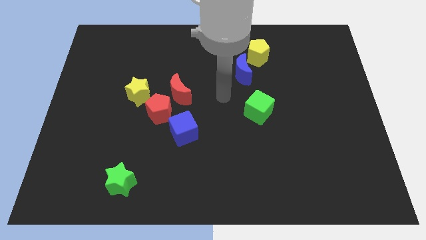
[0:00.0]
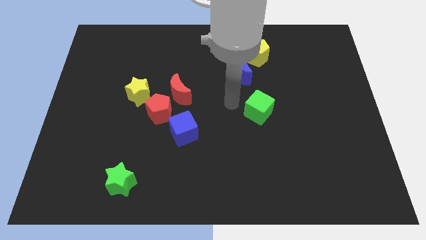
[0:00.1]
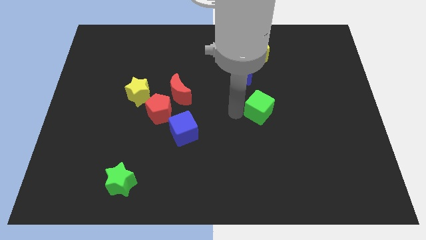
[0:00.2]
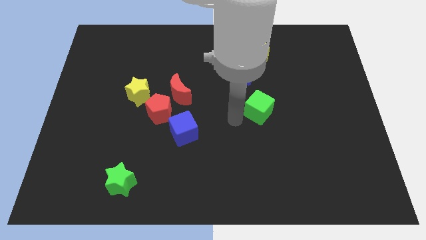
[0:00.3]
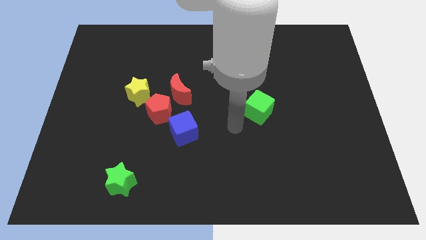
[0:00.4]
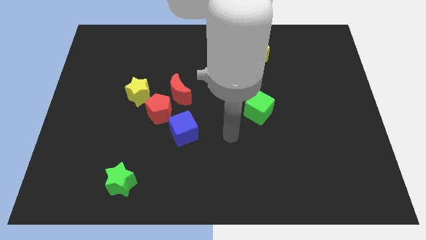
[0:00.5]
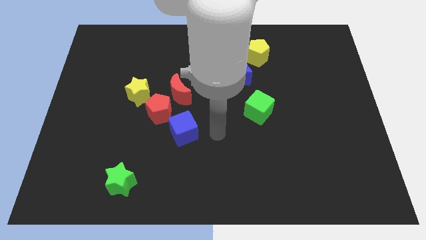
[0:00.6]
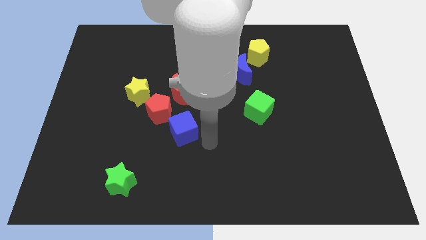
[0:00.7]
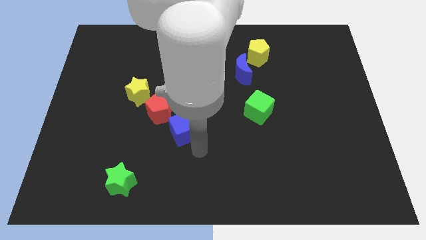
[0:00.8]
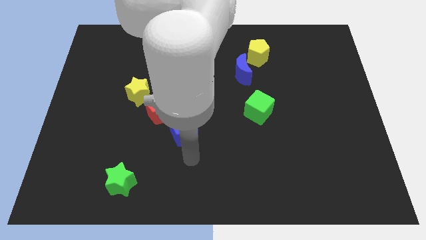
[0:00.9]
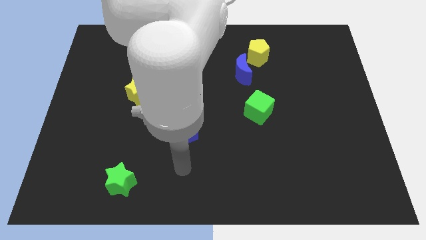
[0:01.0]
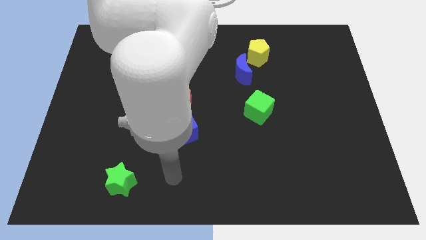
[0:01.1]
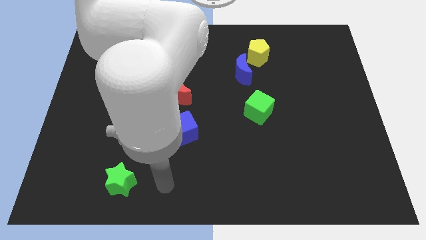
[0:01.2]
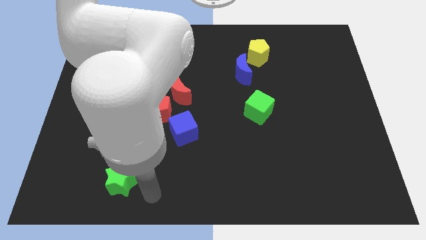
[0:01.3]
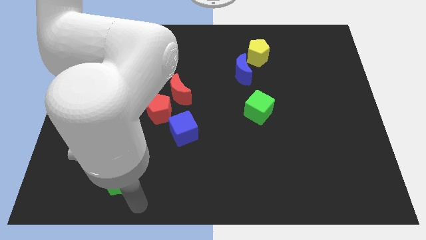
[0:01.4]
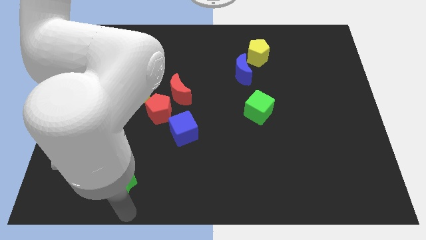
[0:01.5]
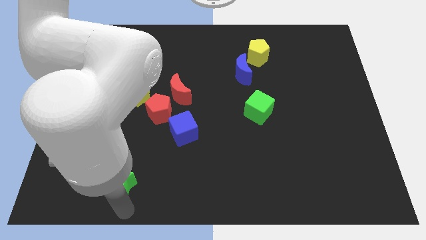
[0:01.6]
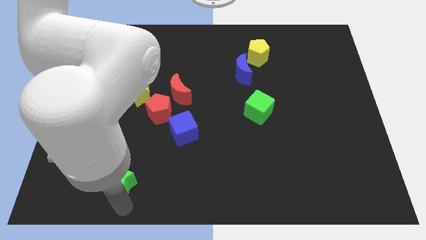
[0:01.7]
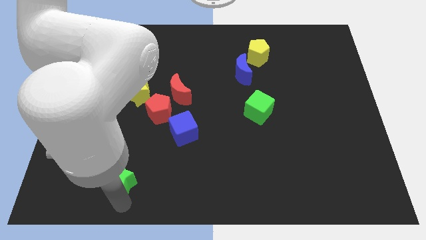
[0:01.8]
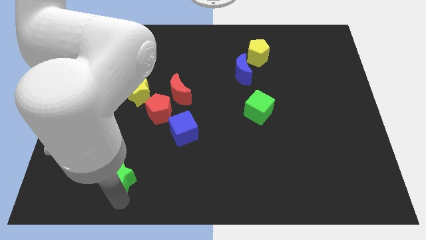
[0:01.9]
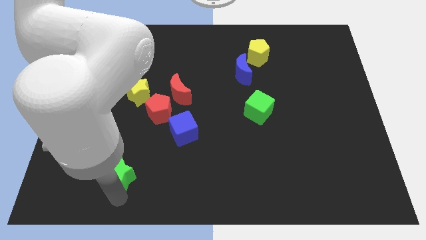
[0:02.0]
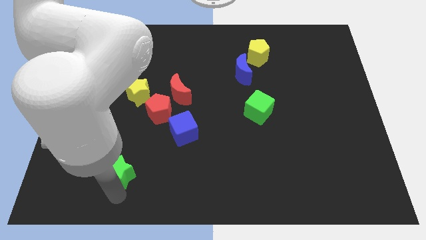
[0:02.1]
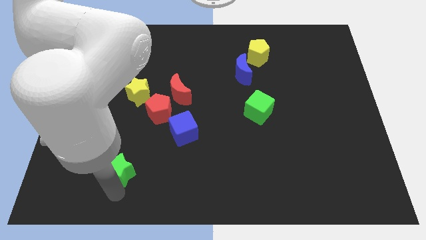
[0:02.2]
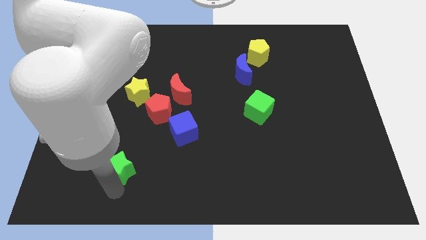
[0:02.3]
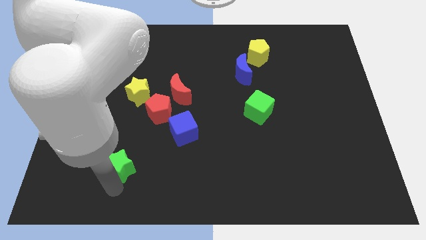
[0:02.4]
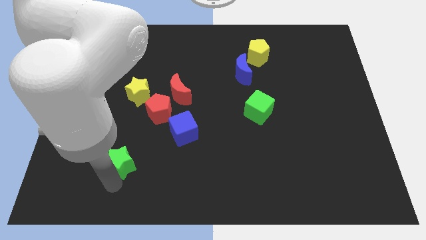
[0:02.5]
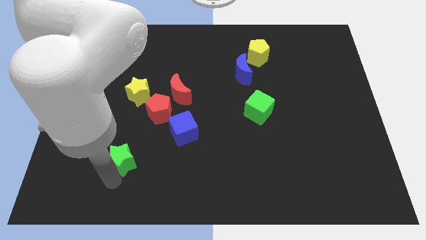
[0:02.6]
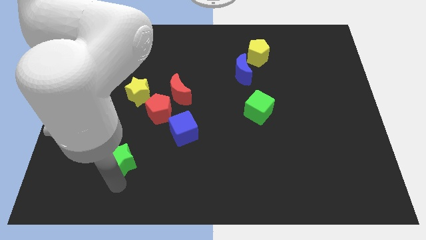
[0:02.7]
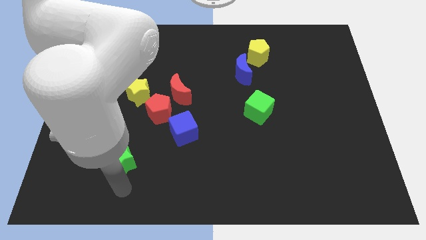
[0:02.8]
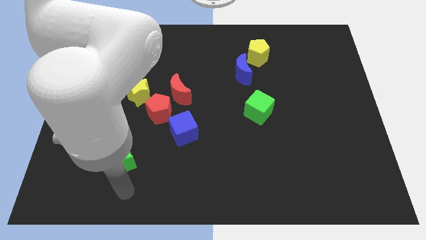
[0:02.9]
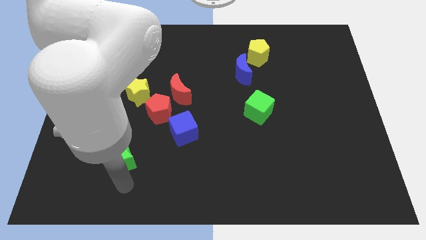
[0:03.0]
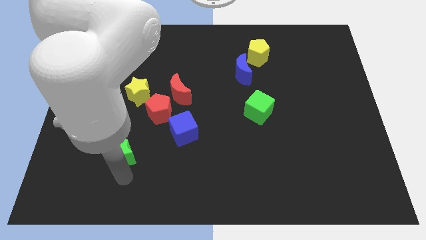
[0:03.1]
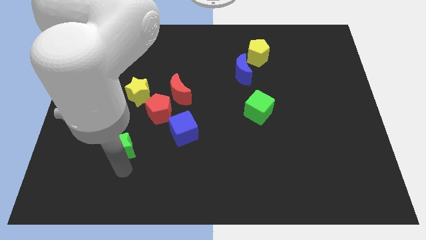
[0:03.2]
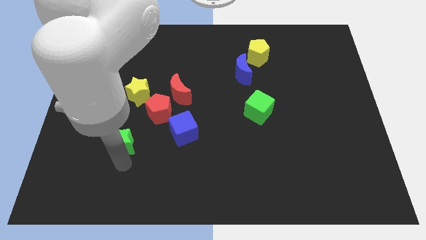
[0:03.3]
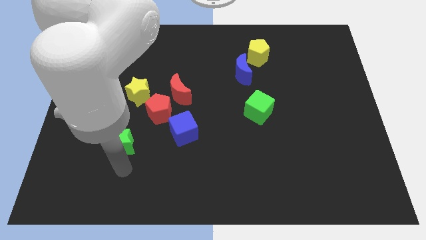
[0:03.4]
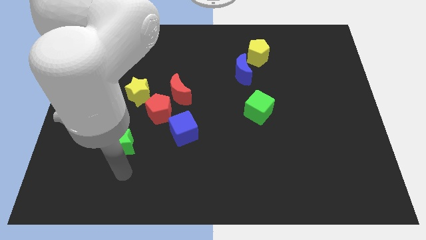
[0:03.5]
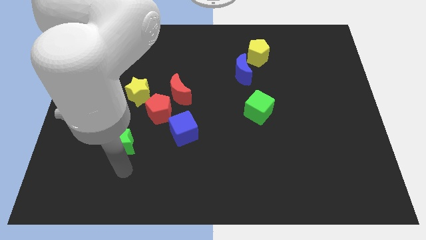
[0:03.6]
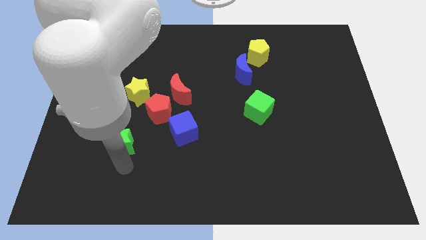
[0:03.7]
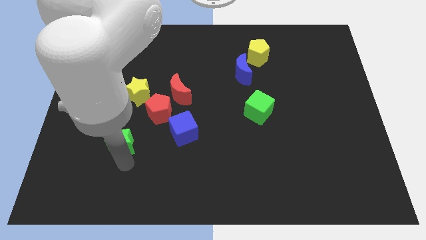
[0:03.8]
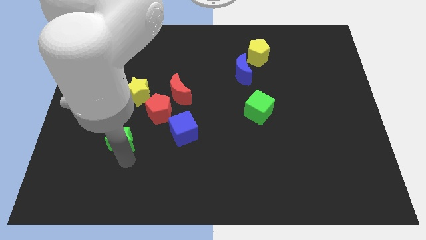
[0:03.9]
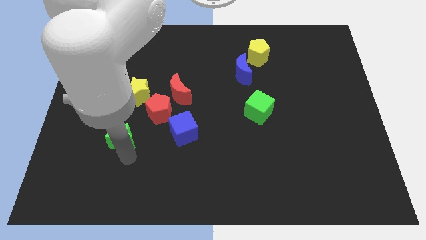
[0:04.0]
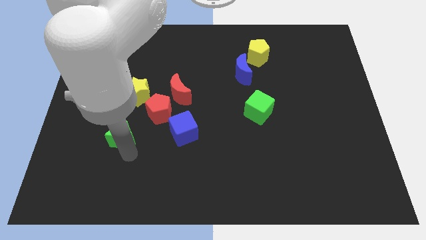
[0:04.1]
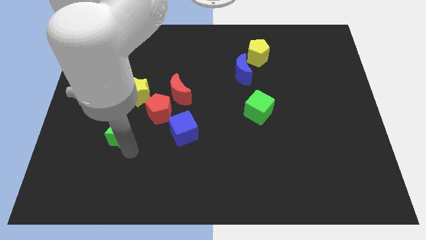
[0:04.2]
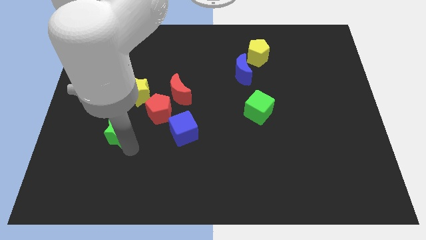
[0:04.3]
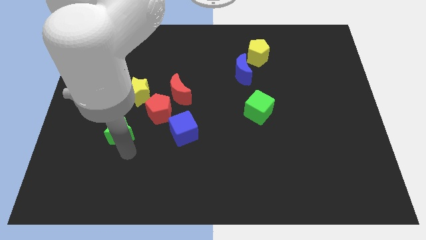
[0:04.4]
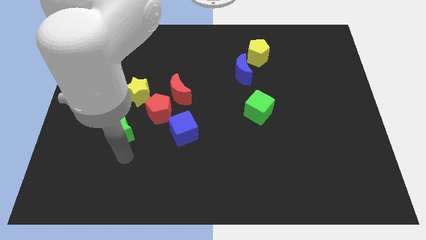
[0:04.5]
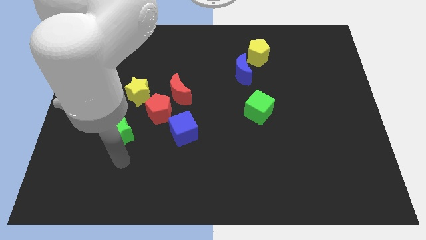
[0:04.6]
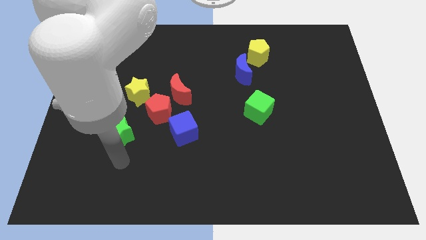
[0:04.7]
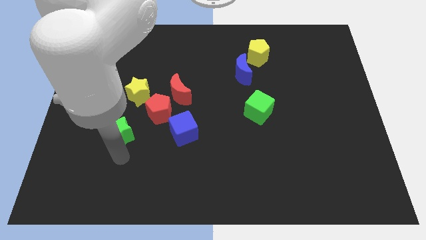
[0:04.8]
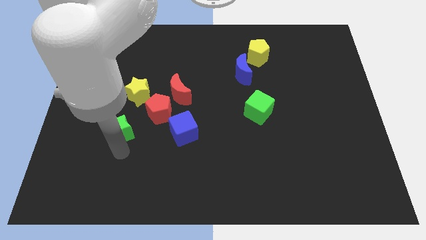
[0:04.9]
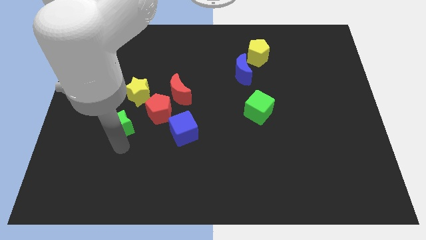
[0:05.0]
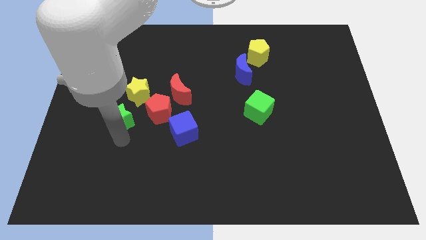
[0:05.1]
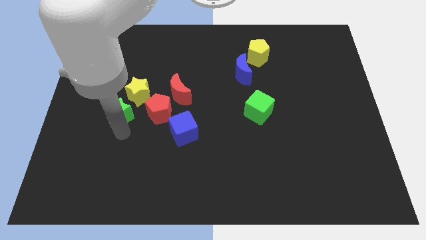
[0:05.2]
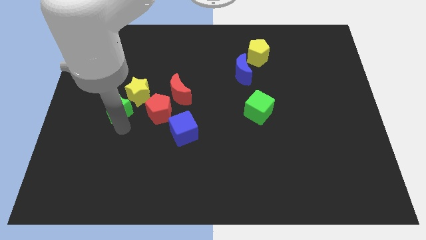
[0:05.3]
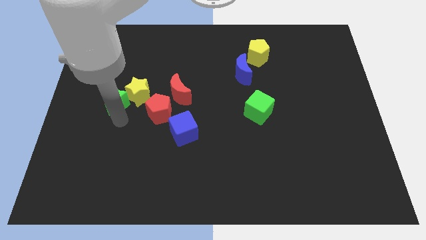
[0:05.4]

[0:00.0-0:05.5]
push the green star up

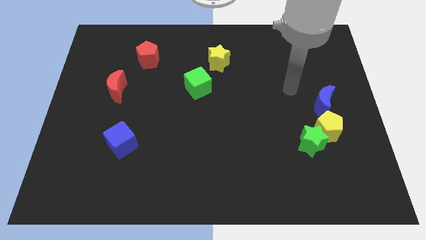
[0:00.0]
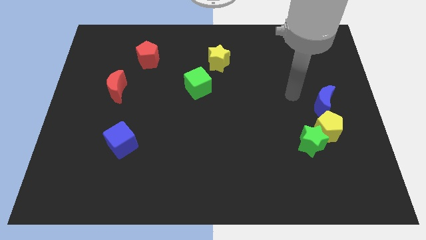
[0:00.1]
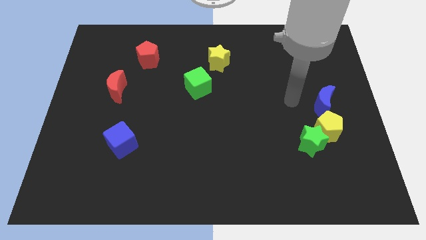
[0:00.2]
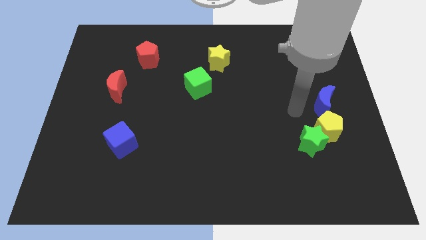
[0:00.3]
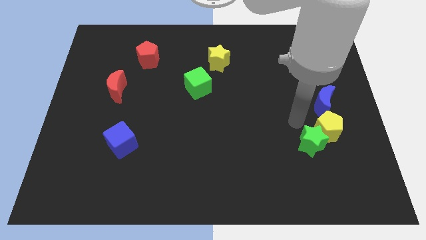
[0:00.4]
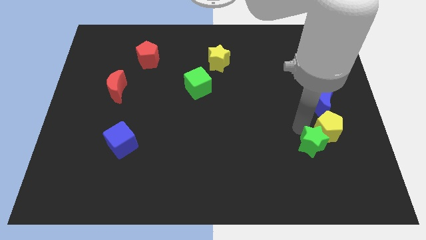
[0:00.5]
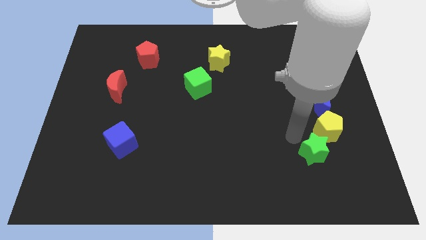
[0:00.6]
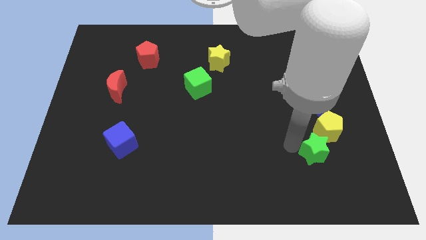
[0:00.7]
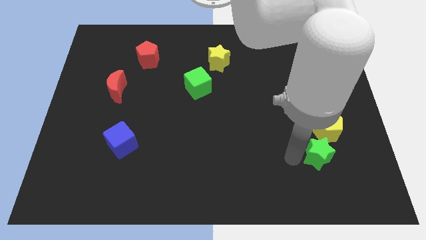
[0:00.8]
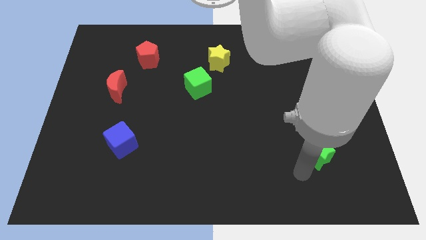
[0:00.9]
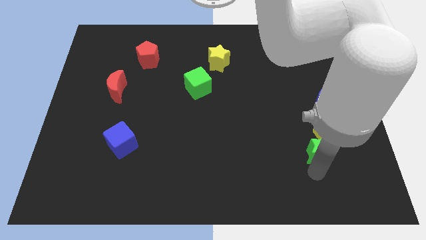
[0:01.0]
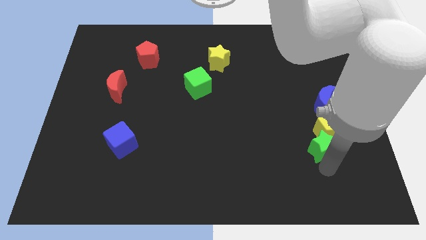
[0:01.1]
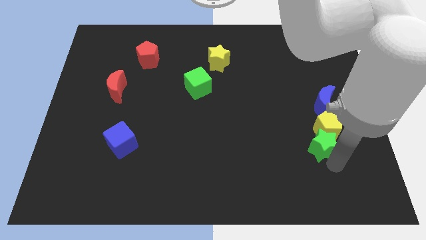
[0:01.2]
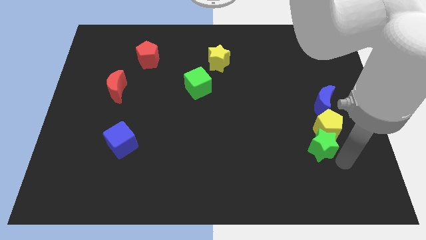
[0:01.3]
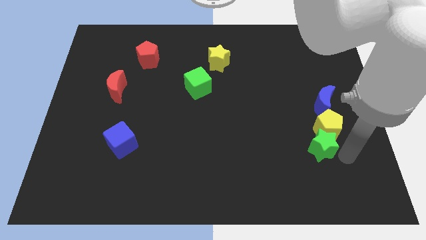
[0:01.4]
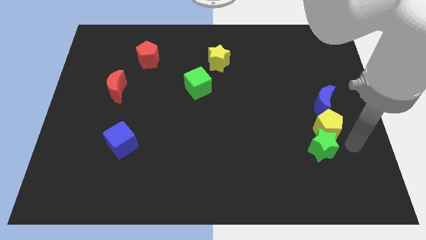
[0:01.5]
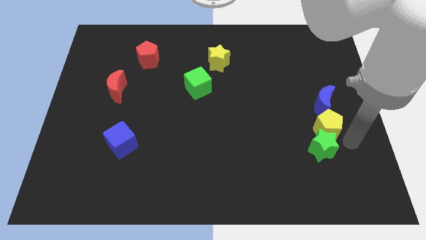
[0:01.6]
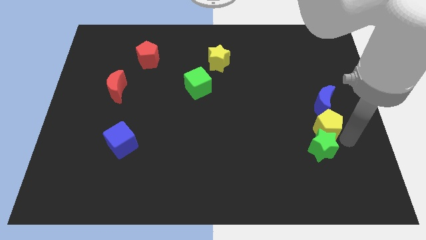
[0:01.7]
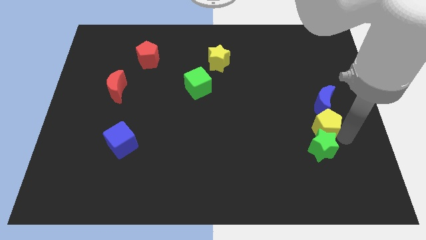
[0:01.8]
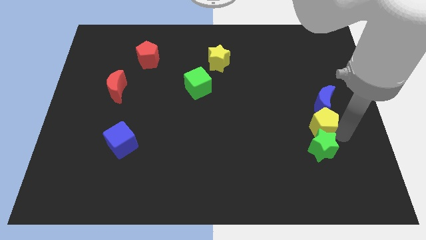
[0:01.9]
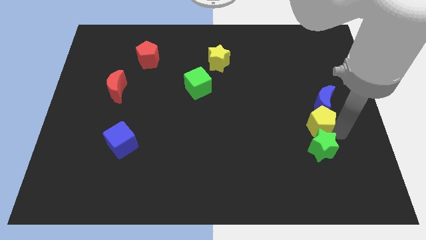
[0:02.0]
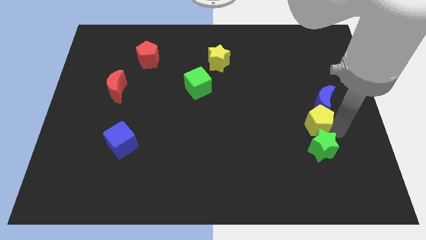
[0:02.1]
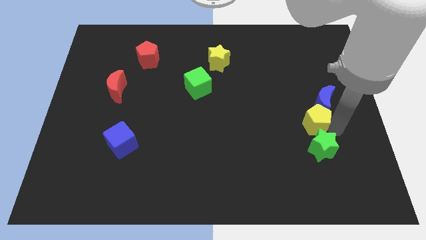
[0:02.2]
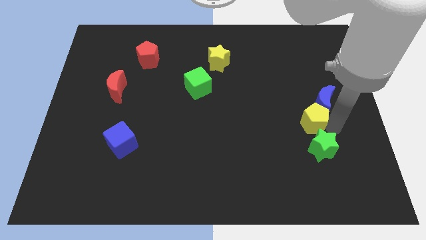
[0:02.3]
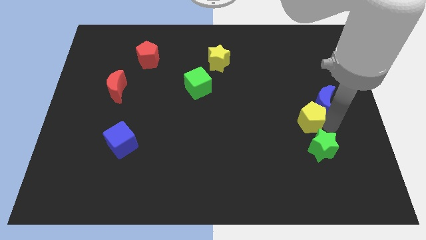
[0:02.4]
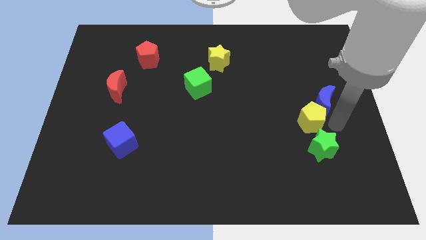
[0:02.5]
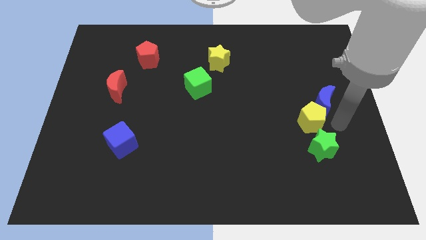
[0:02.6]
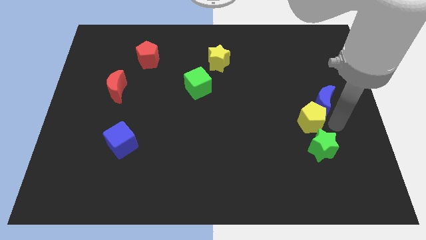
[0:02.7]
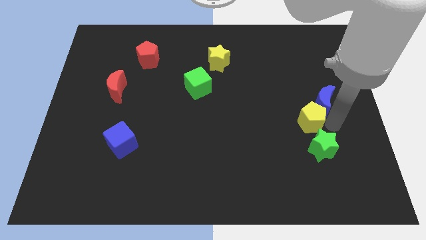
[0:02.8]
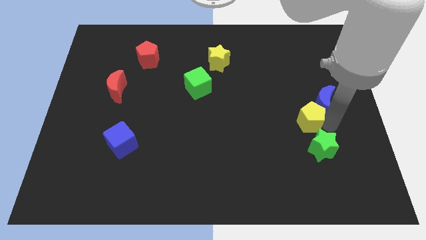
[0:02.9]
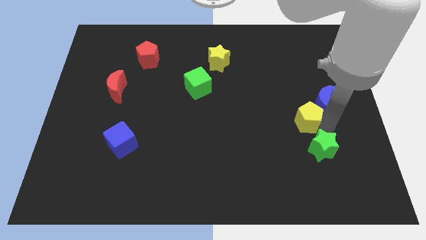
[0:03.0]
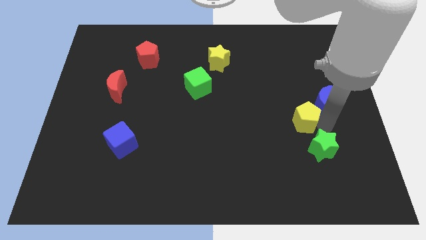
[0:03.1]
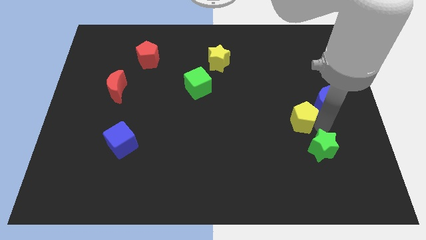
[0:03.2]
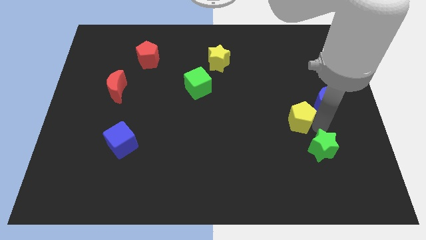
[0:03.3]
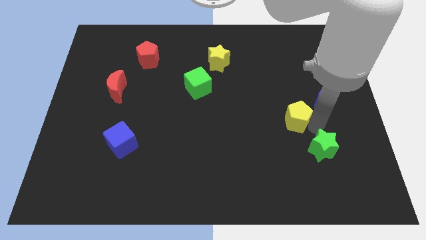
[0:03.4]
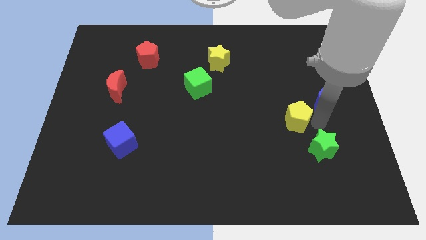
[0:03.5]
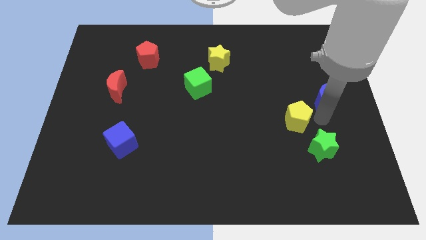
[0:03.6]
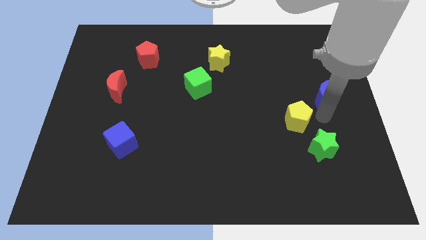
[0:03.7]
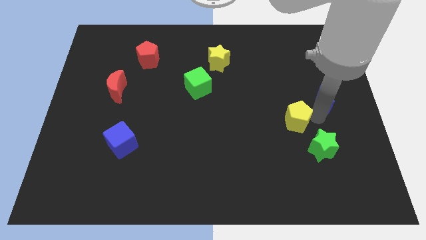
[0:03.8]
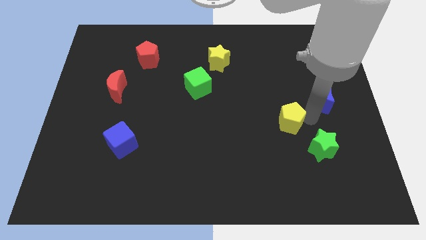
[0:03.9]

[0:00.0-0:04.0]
slightly move the yellow pentagon left
